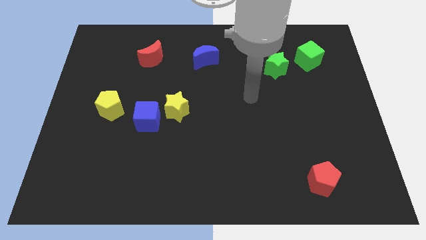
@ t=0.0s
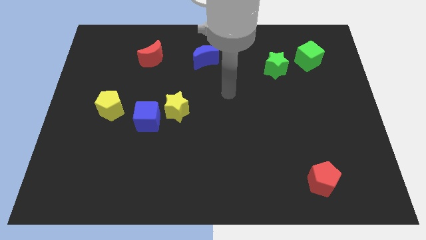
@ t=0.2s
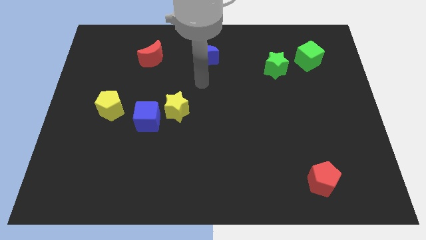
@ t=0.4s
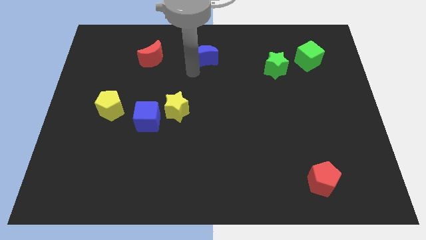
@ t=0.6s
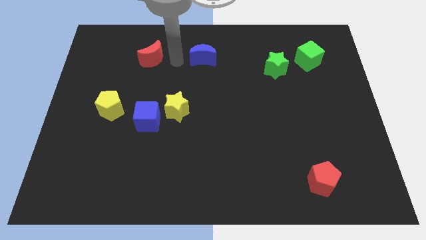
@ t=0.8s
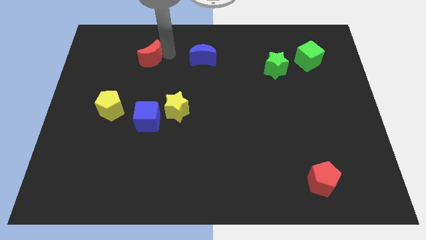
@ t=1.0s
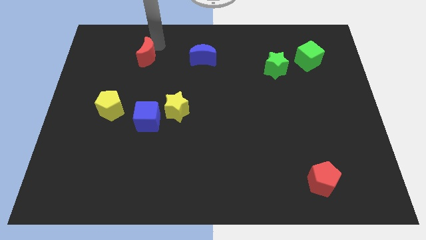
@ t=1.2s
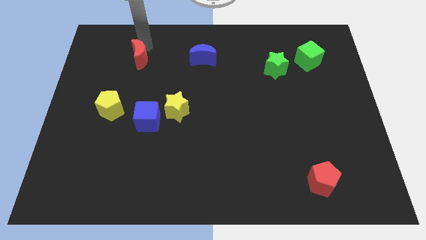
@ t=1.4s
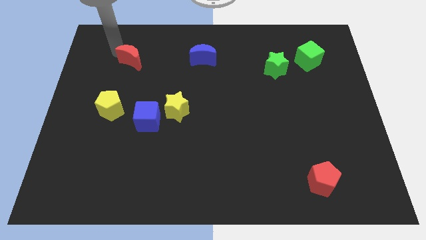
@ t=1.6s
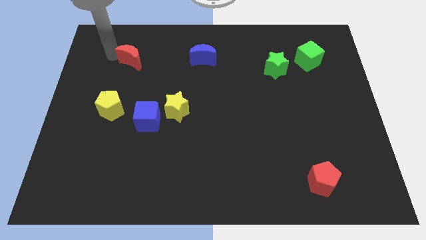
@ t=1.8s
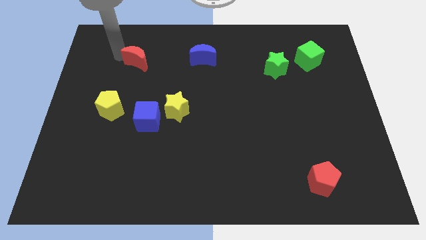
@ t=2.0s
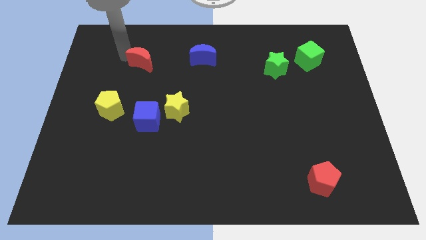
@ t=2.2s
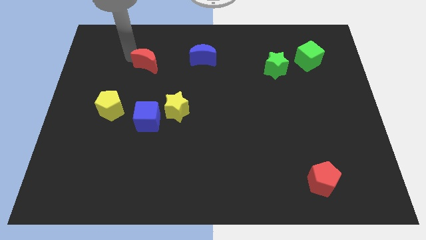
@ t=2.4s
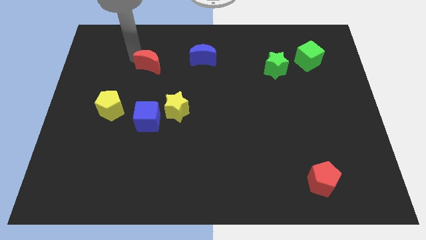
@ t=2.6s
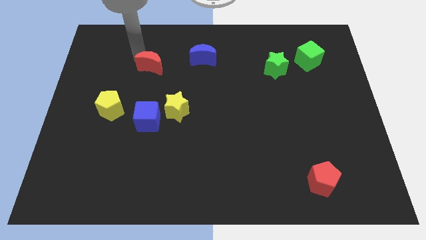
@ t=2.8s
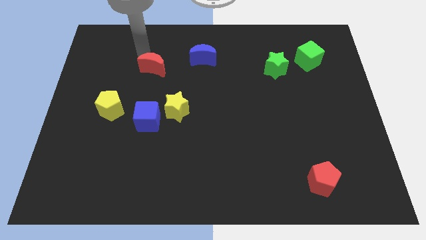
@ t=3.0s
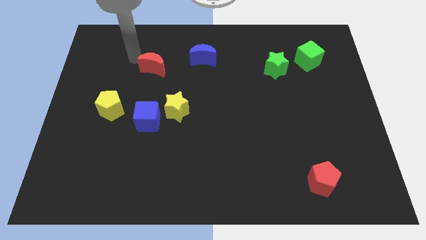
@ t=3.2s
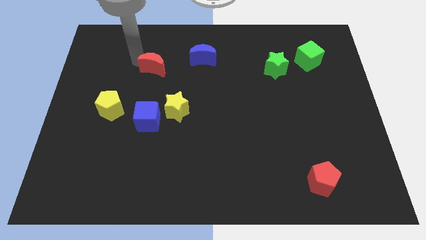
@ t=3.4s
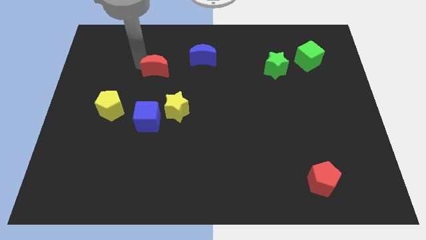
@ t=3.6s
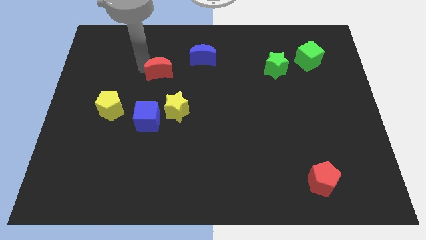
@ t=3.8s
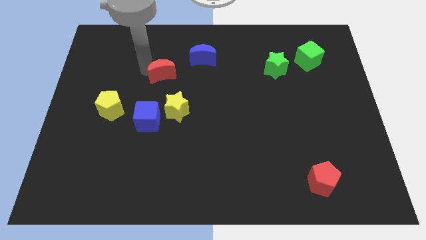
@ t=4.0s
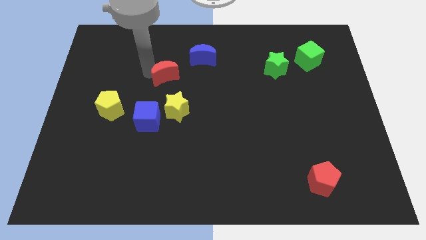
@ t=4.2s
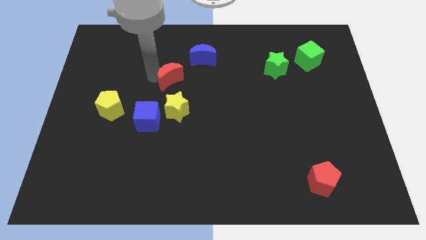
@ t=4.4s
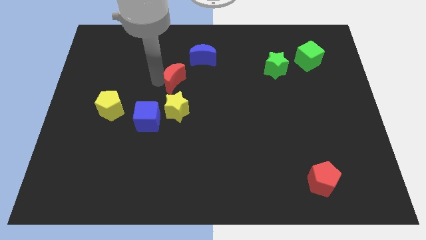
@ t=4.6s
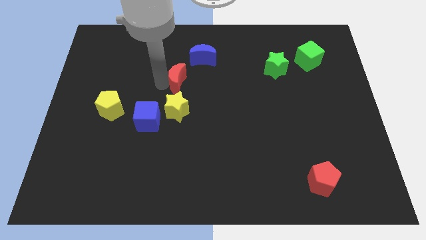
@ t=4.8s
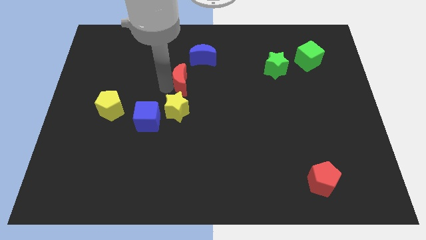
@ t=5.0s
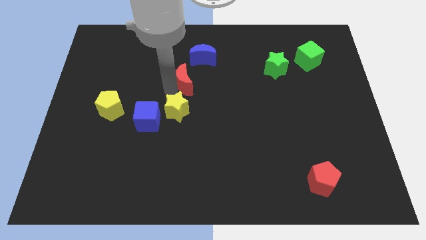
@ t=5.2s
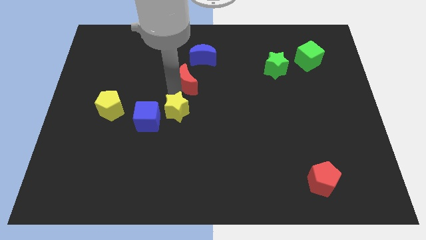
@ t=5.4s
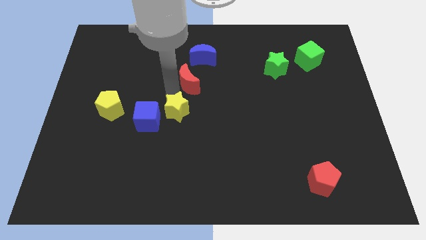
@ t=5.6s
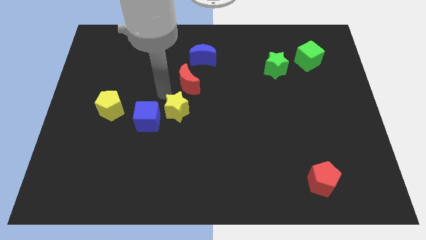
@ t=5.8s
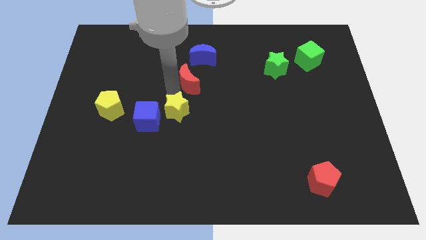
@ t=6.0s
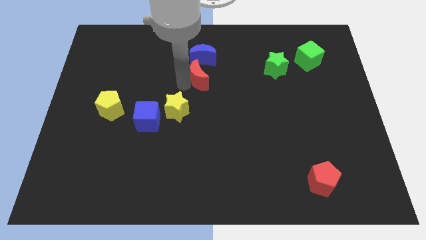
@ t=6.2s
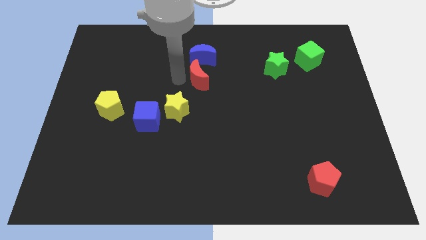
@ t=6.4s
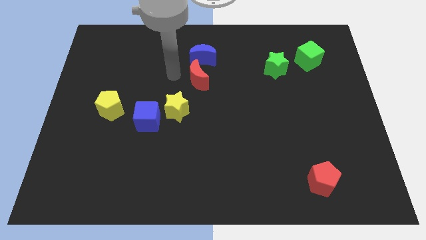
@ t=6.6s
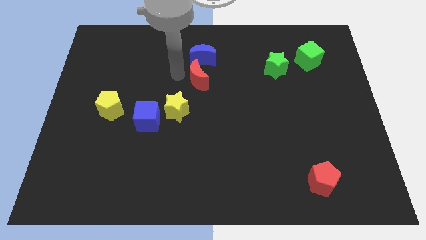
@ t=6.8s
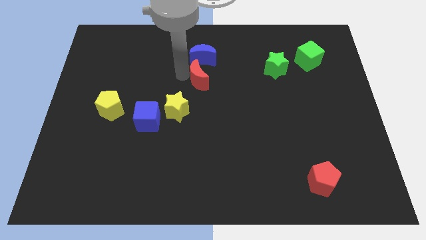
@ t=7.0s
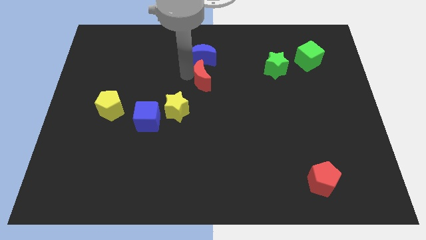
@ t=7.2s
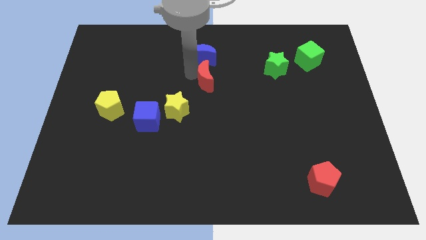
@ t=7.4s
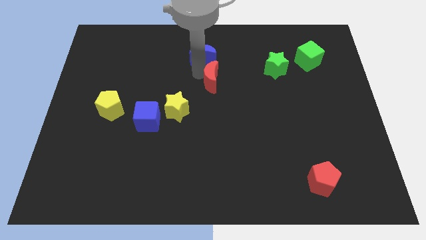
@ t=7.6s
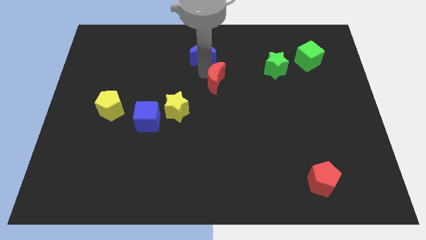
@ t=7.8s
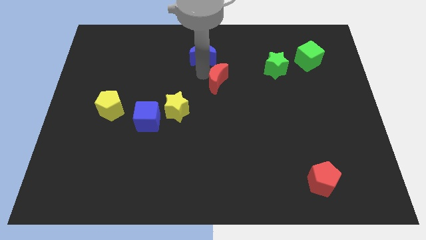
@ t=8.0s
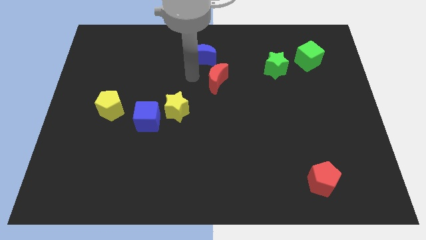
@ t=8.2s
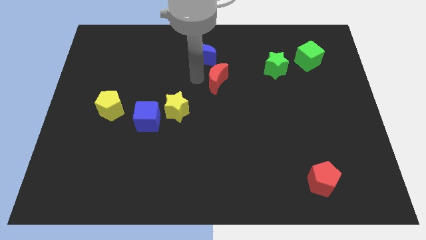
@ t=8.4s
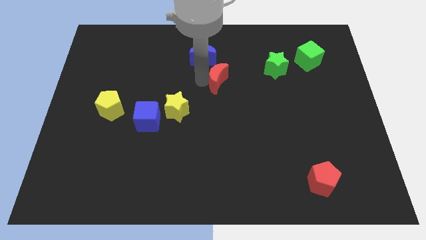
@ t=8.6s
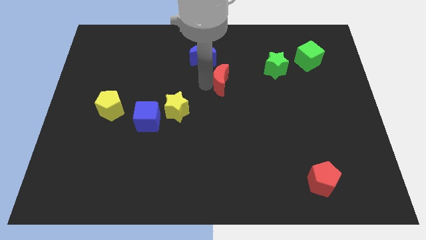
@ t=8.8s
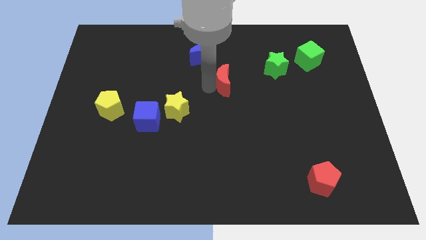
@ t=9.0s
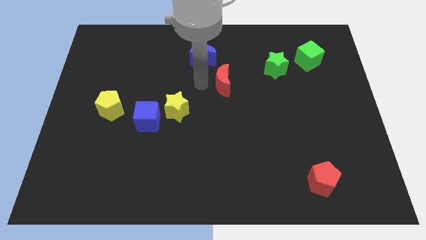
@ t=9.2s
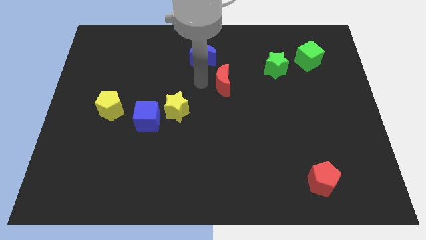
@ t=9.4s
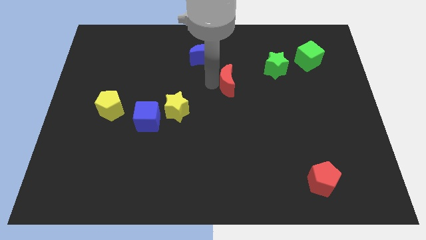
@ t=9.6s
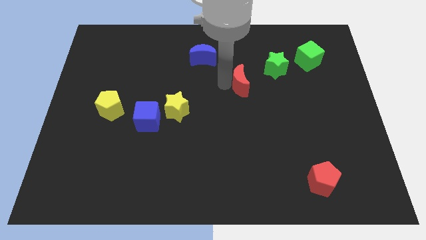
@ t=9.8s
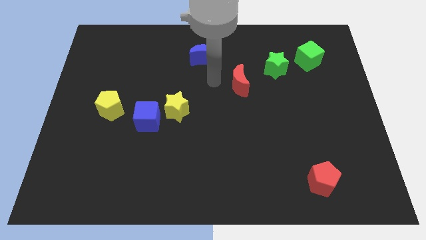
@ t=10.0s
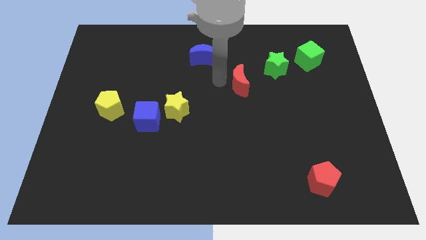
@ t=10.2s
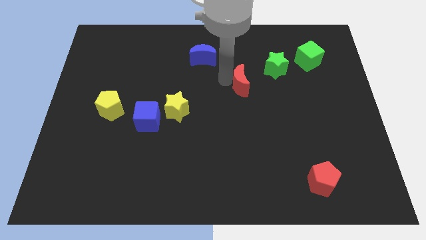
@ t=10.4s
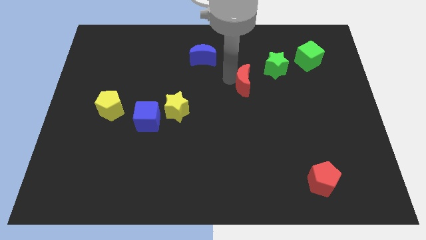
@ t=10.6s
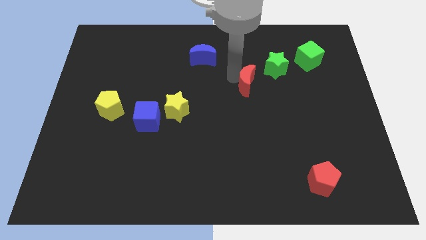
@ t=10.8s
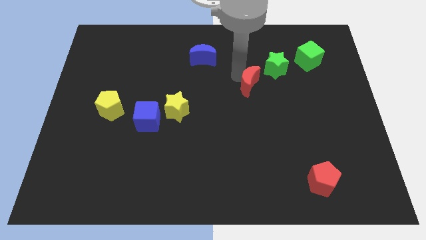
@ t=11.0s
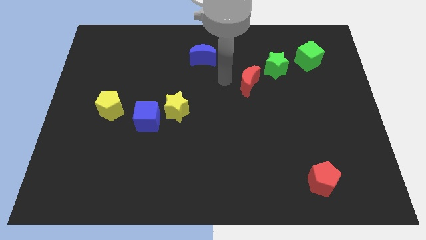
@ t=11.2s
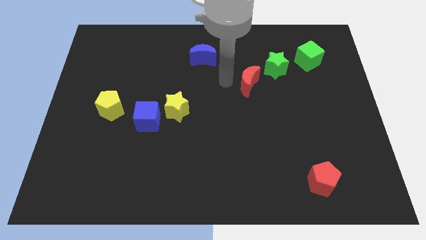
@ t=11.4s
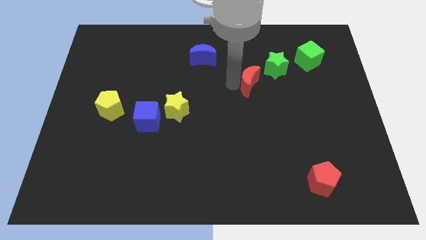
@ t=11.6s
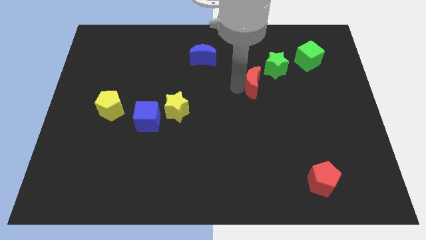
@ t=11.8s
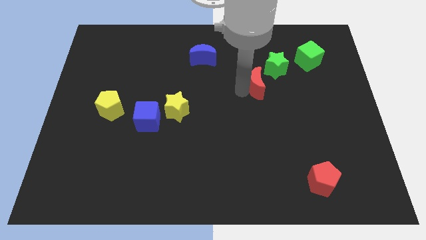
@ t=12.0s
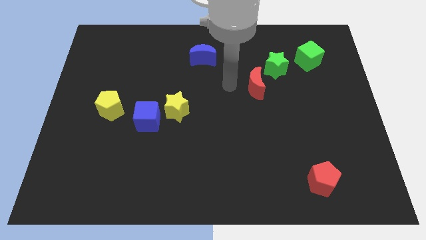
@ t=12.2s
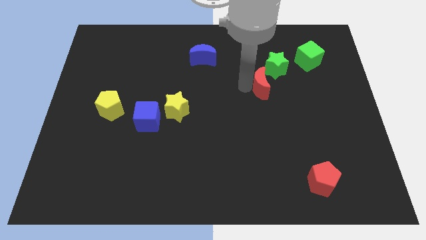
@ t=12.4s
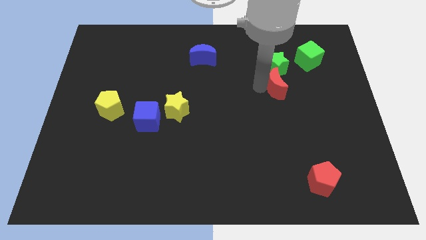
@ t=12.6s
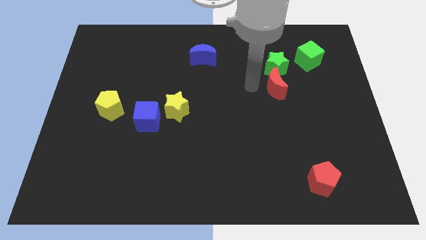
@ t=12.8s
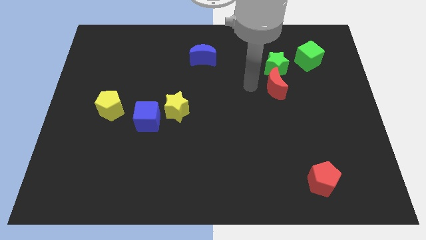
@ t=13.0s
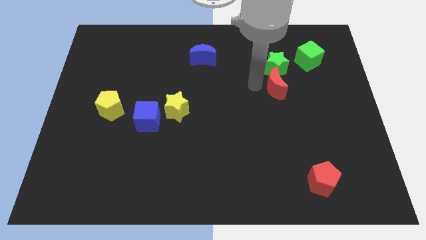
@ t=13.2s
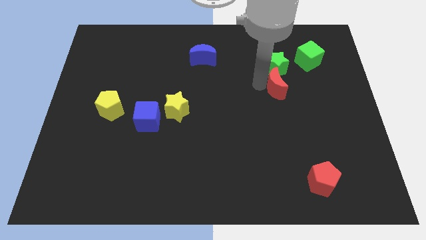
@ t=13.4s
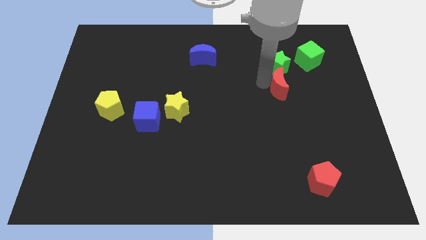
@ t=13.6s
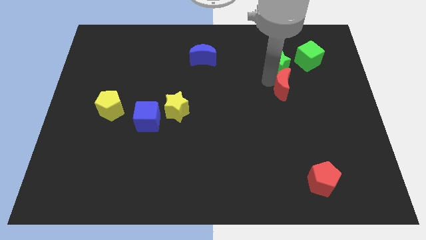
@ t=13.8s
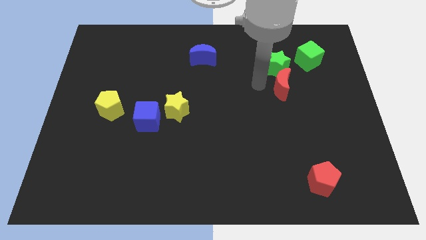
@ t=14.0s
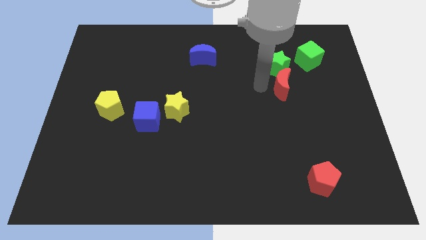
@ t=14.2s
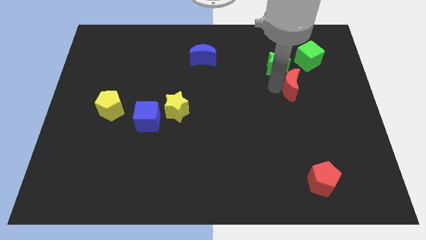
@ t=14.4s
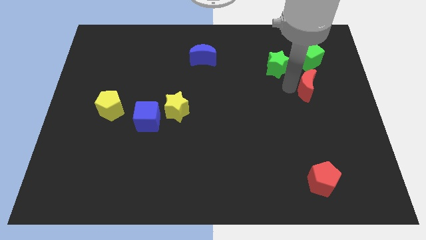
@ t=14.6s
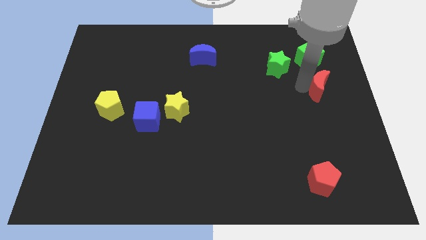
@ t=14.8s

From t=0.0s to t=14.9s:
push the red moon to the center right
